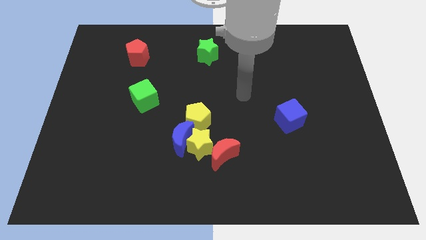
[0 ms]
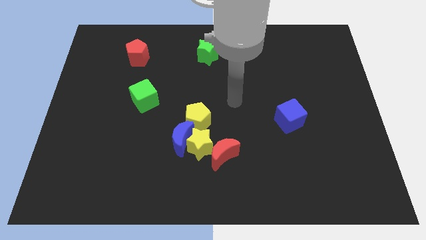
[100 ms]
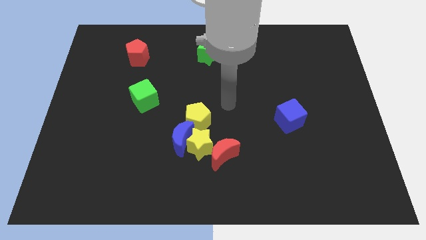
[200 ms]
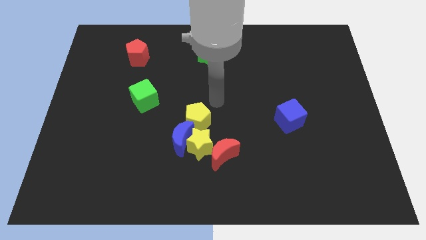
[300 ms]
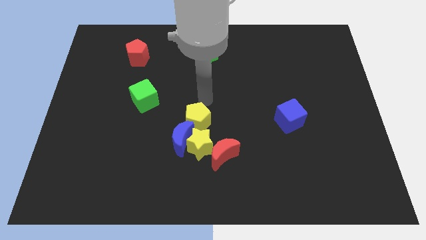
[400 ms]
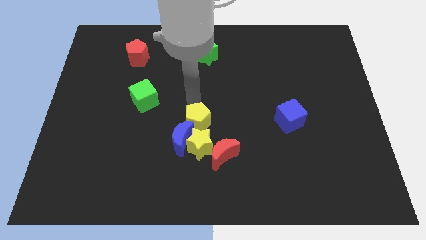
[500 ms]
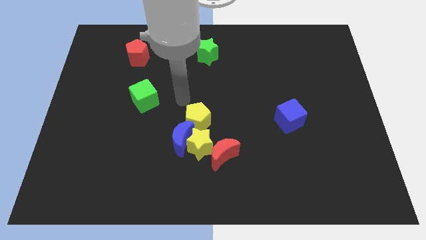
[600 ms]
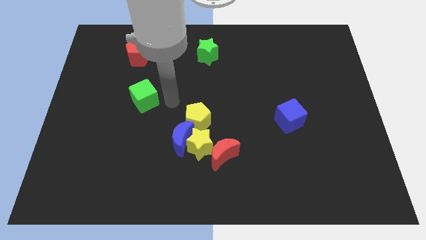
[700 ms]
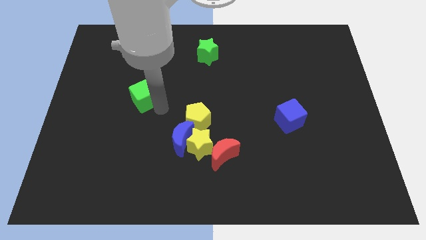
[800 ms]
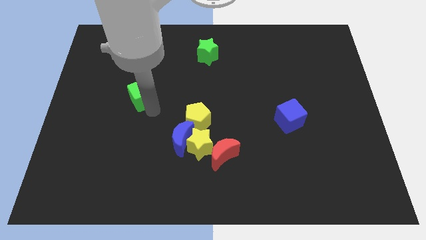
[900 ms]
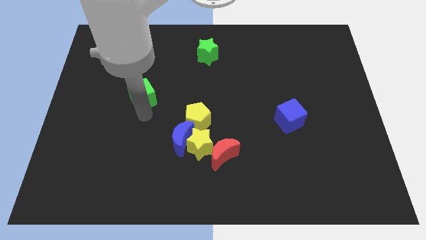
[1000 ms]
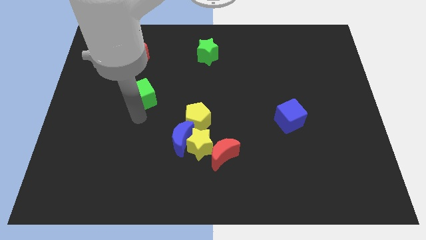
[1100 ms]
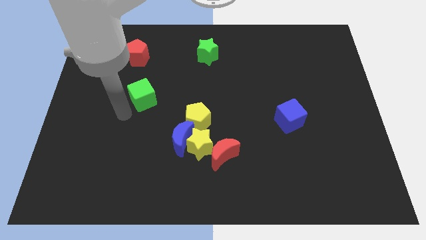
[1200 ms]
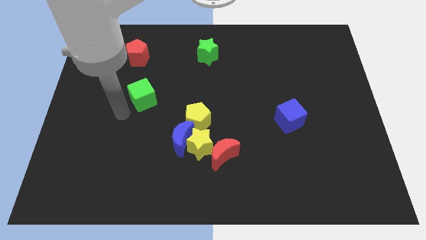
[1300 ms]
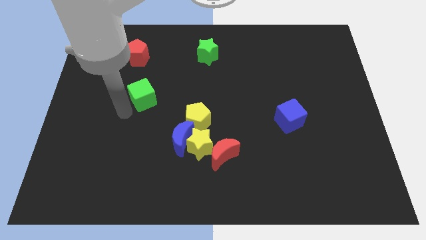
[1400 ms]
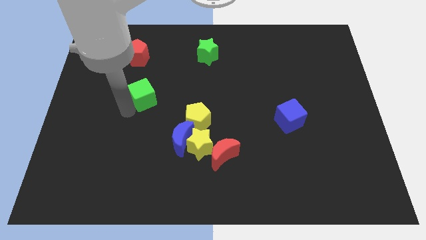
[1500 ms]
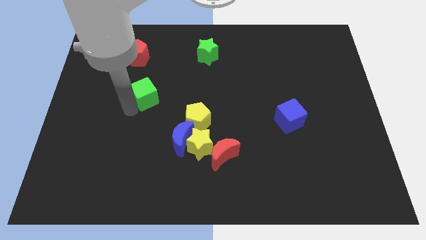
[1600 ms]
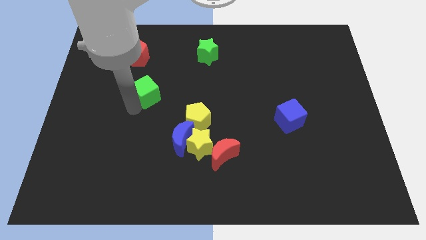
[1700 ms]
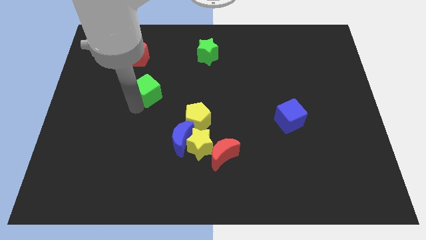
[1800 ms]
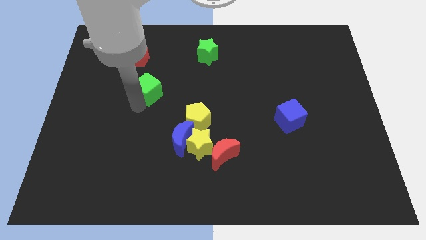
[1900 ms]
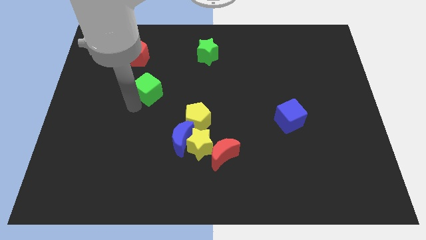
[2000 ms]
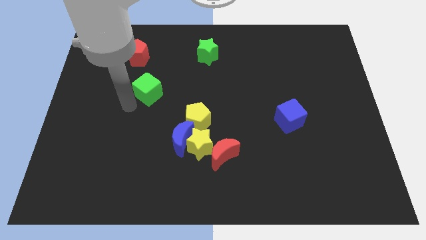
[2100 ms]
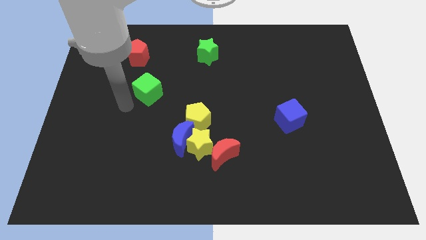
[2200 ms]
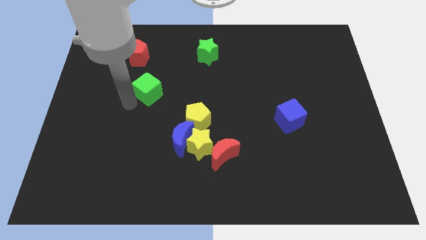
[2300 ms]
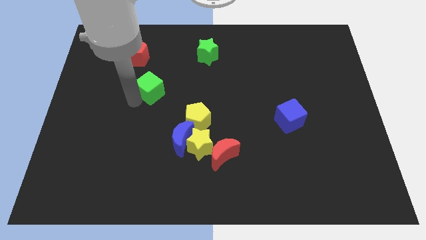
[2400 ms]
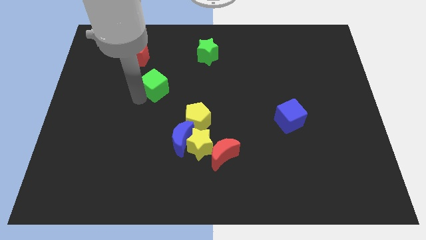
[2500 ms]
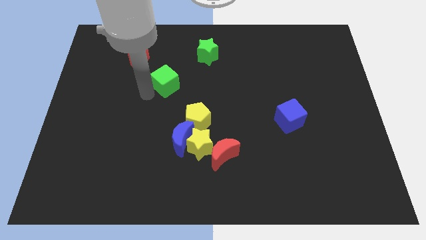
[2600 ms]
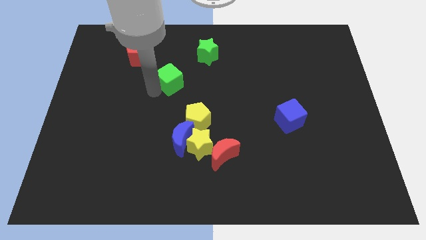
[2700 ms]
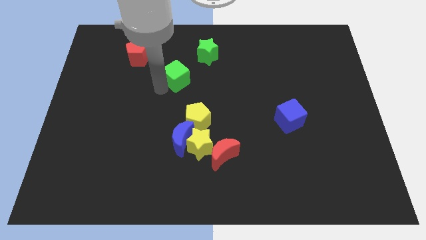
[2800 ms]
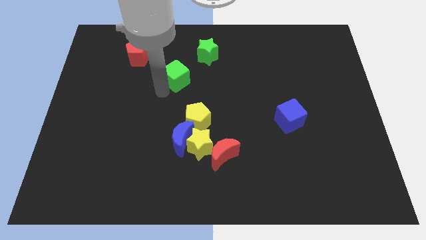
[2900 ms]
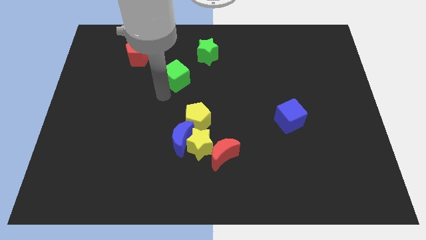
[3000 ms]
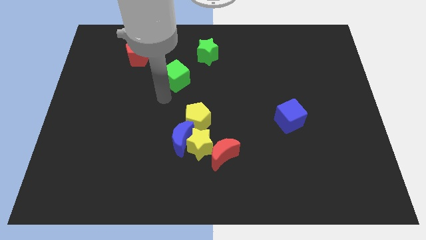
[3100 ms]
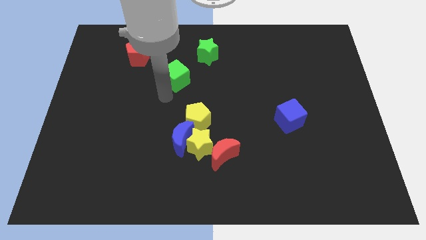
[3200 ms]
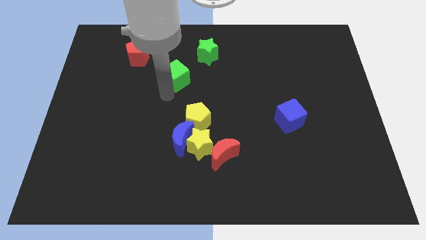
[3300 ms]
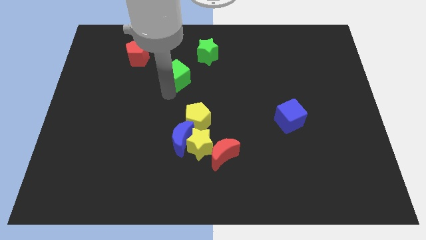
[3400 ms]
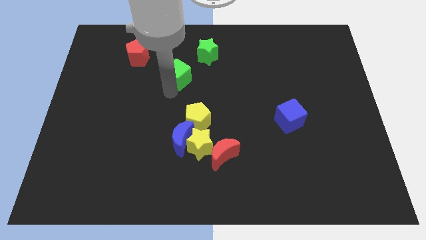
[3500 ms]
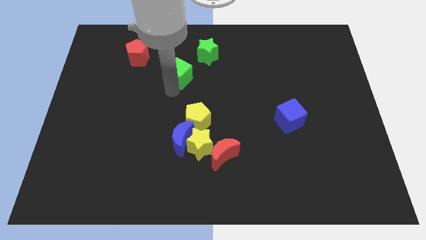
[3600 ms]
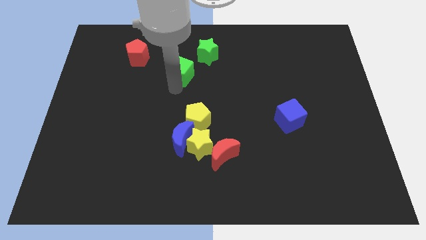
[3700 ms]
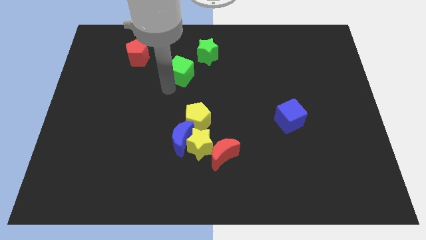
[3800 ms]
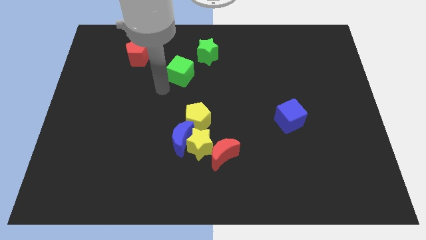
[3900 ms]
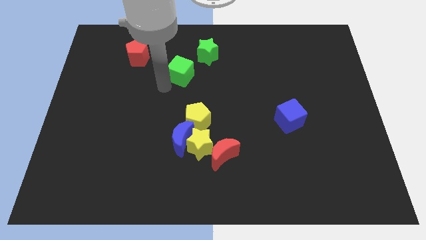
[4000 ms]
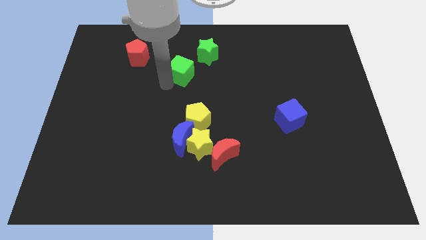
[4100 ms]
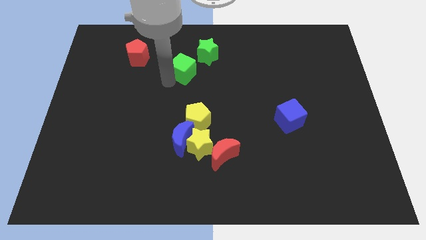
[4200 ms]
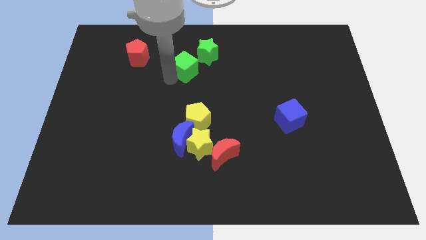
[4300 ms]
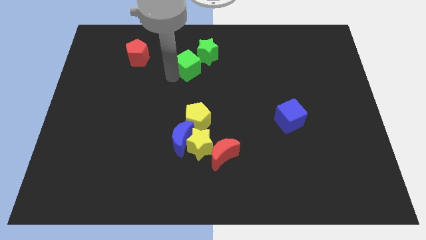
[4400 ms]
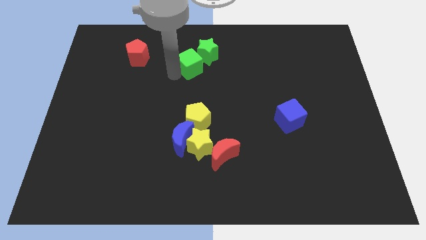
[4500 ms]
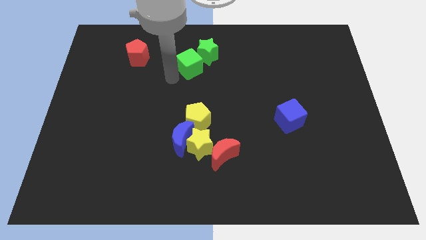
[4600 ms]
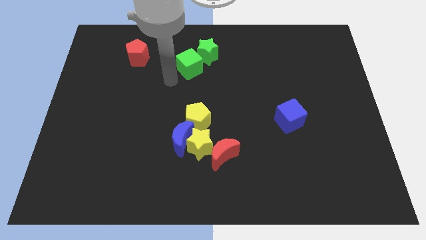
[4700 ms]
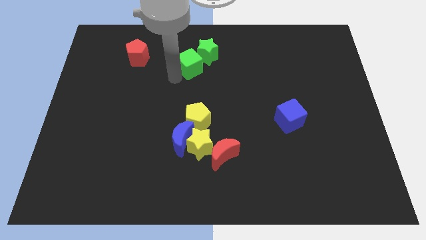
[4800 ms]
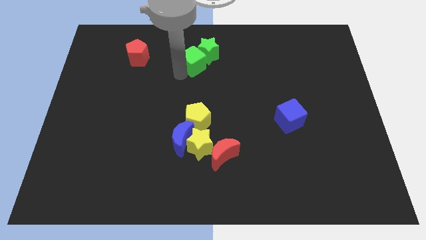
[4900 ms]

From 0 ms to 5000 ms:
slide the green cube next to the green star

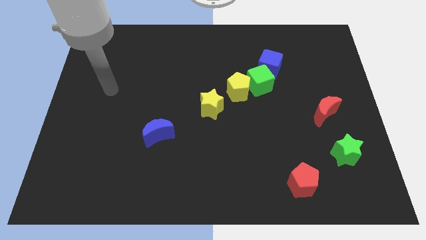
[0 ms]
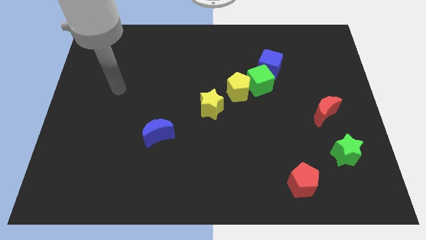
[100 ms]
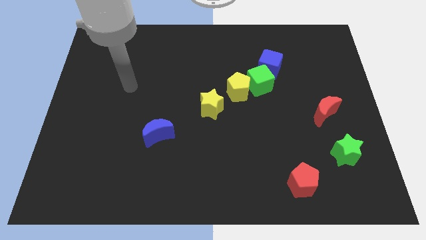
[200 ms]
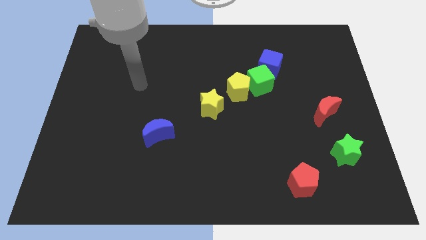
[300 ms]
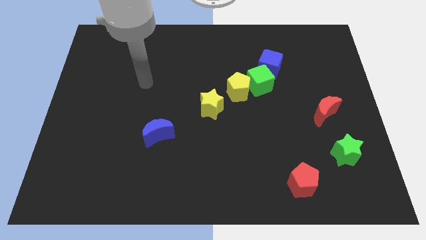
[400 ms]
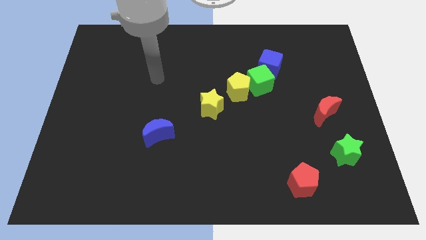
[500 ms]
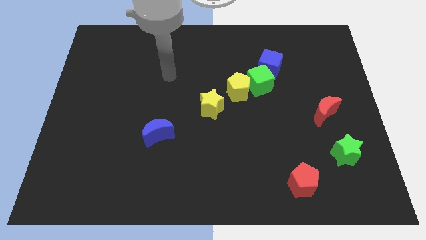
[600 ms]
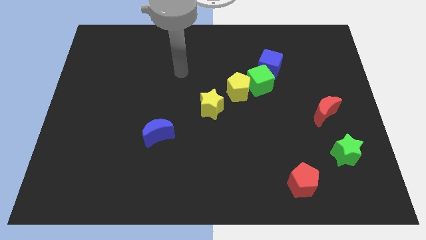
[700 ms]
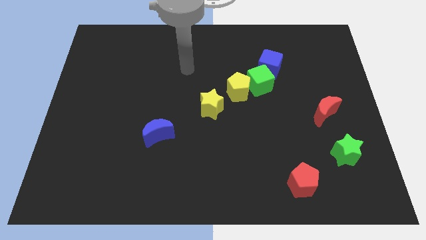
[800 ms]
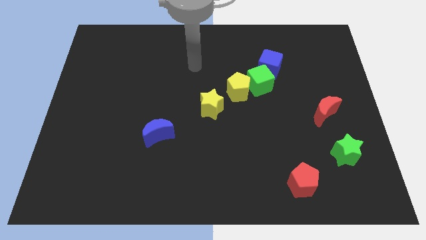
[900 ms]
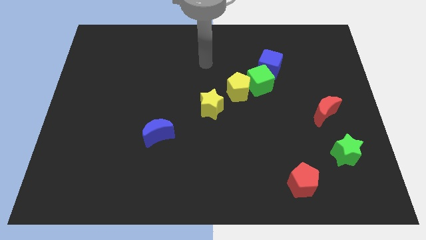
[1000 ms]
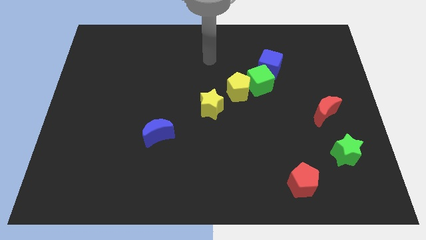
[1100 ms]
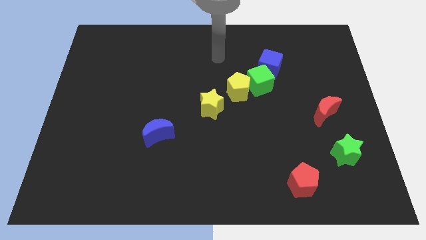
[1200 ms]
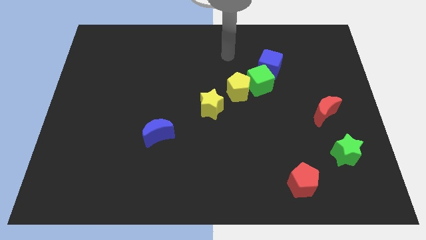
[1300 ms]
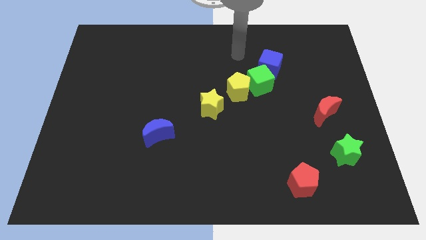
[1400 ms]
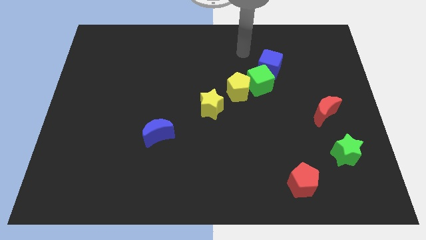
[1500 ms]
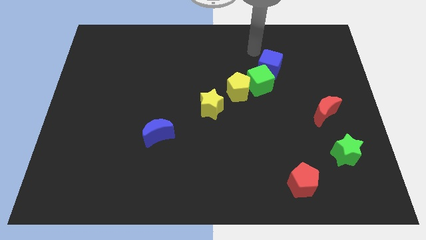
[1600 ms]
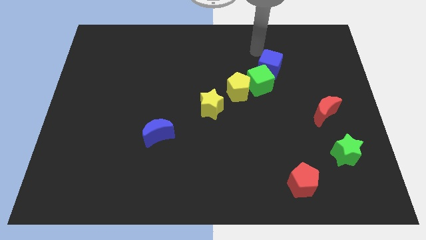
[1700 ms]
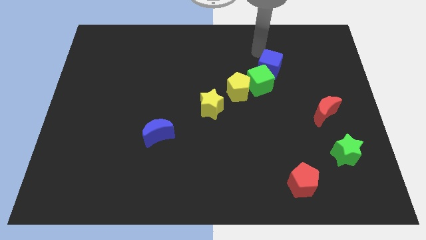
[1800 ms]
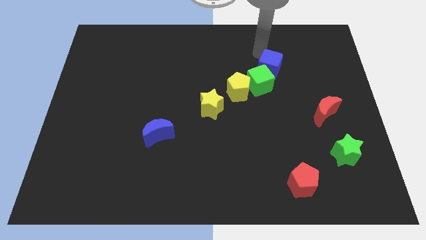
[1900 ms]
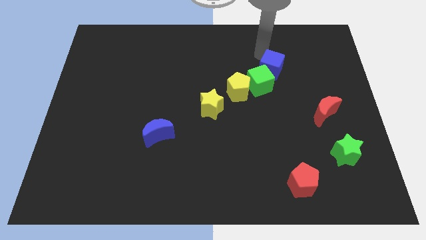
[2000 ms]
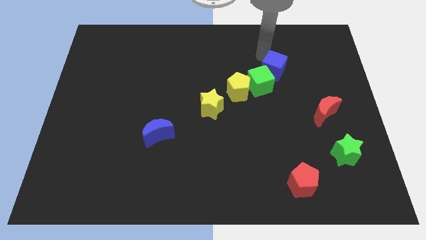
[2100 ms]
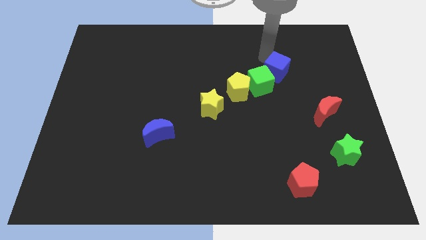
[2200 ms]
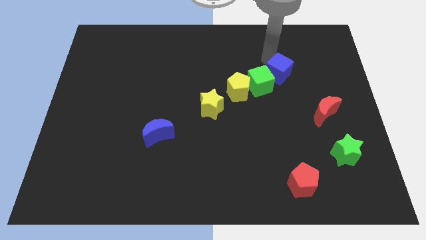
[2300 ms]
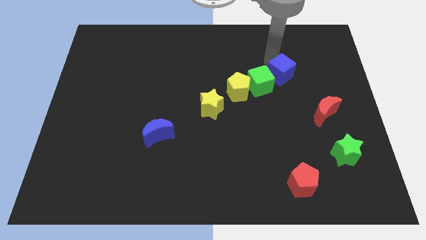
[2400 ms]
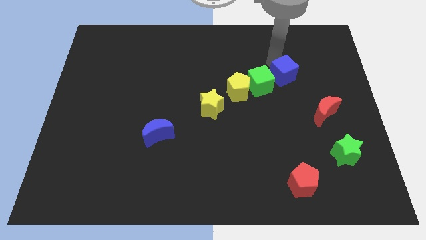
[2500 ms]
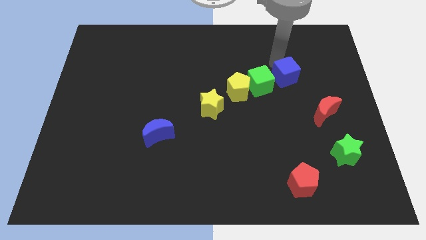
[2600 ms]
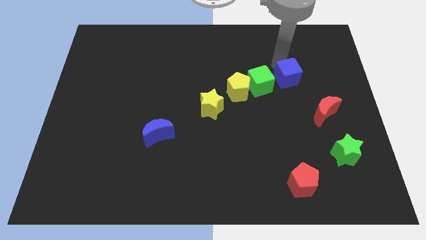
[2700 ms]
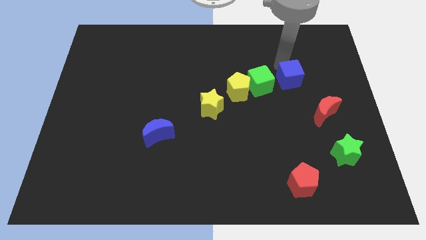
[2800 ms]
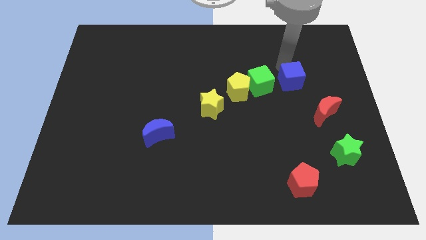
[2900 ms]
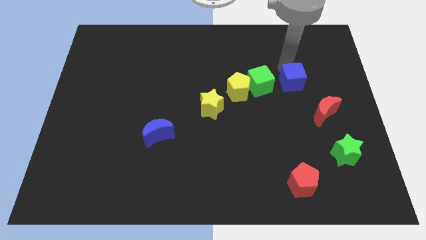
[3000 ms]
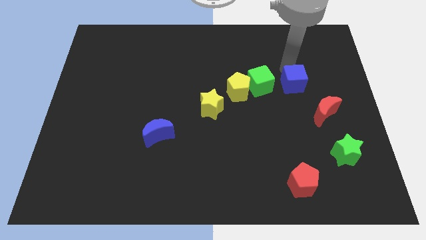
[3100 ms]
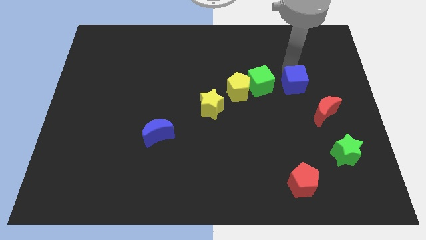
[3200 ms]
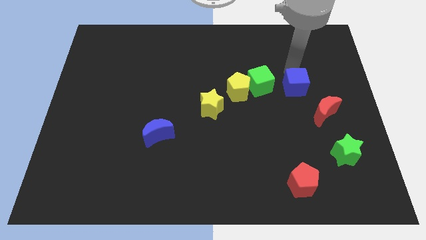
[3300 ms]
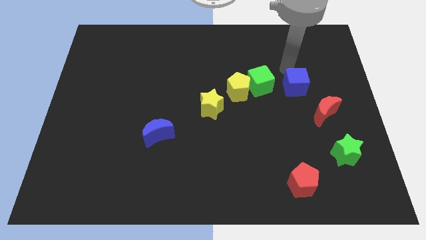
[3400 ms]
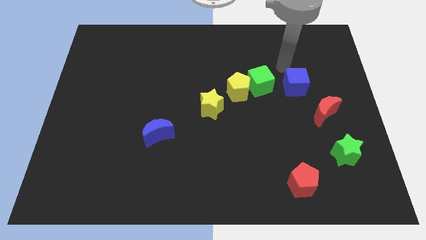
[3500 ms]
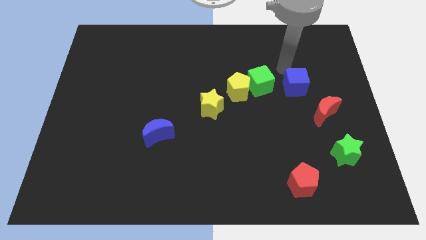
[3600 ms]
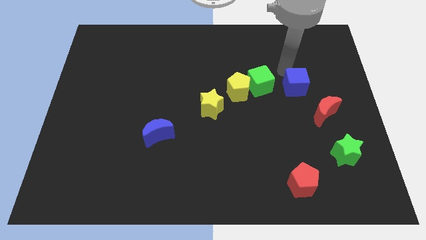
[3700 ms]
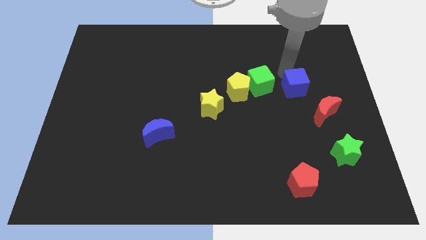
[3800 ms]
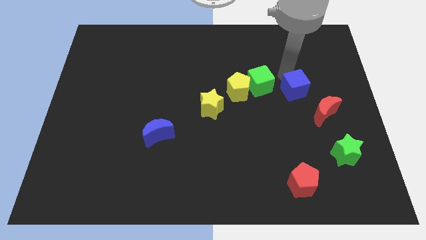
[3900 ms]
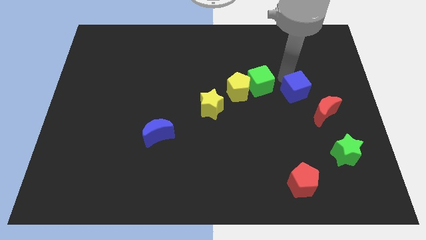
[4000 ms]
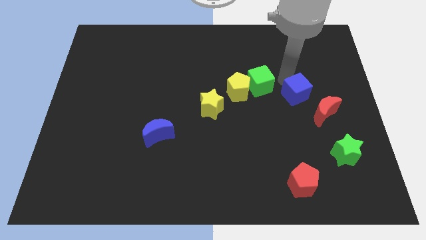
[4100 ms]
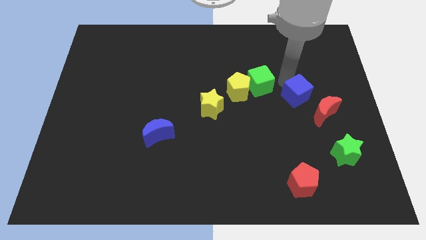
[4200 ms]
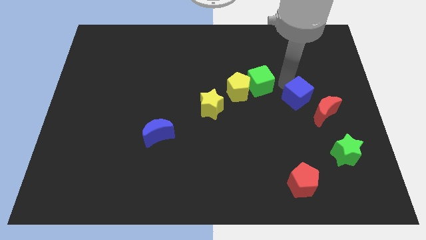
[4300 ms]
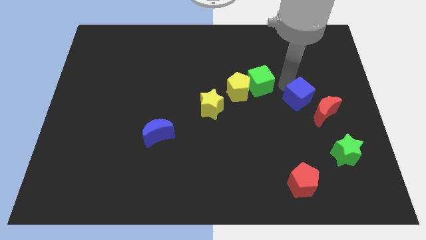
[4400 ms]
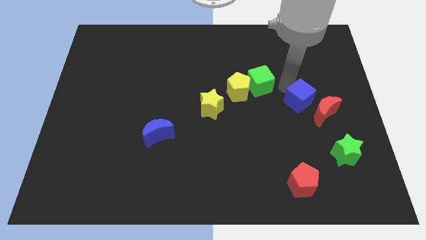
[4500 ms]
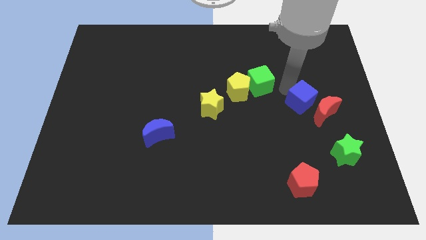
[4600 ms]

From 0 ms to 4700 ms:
put the blue cube towards the red moon
